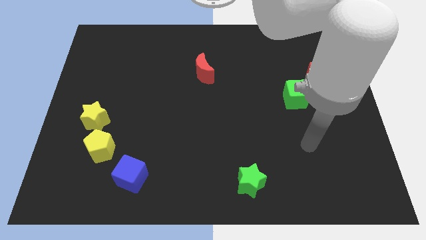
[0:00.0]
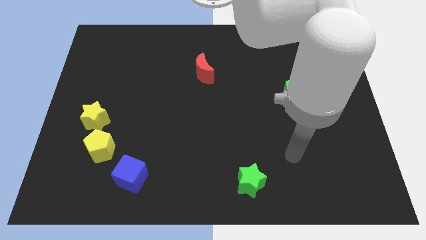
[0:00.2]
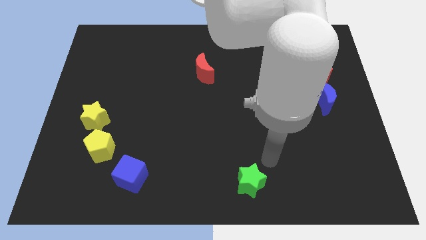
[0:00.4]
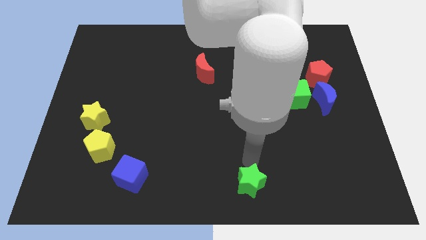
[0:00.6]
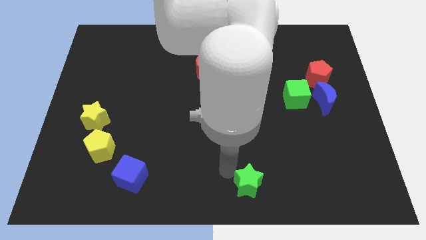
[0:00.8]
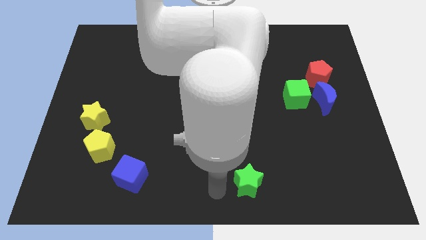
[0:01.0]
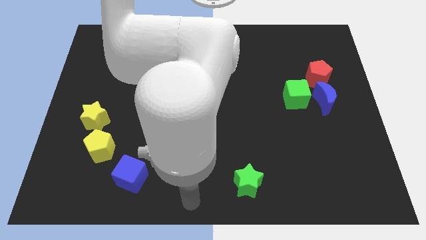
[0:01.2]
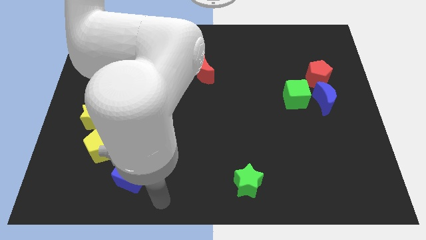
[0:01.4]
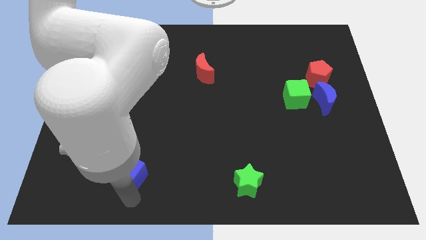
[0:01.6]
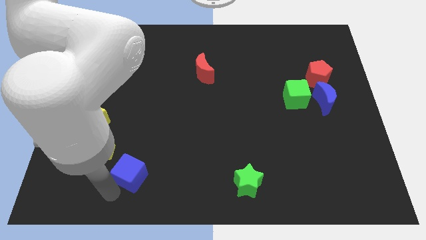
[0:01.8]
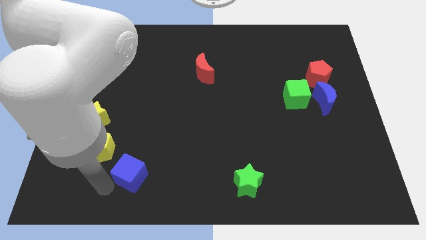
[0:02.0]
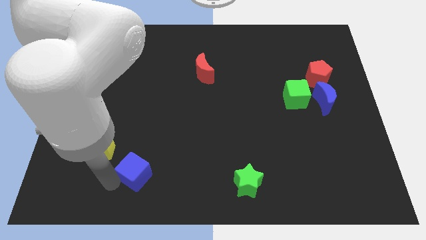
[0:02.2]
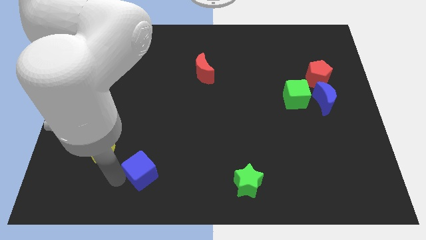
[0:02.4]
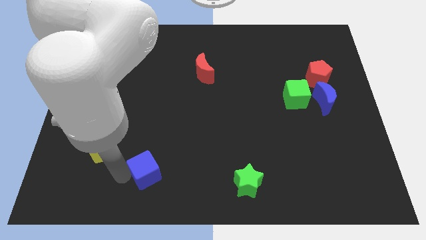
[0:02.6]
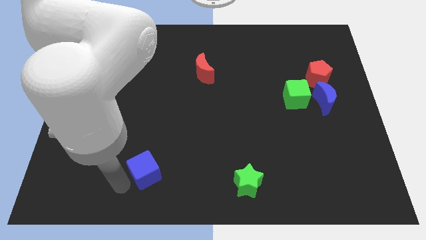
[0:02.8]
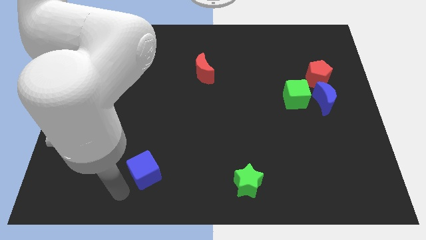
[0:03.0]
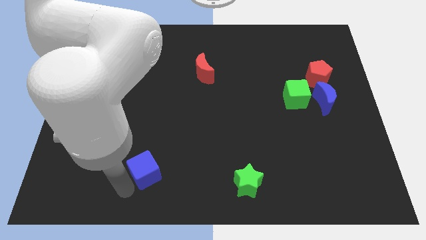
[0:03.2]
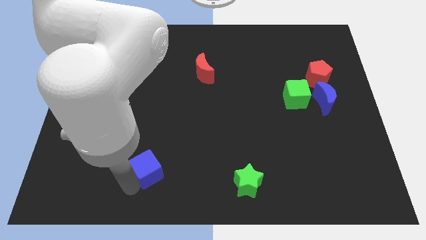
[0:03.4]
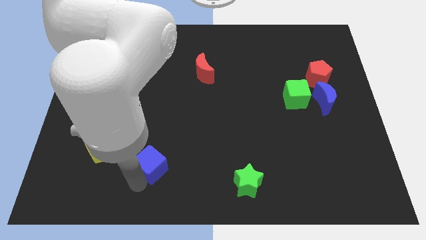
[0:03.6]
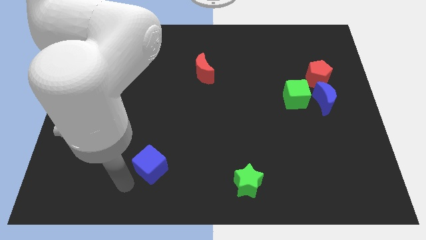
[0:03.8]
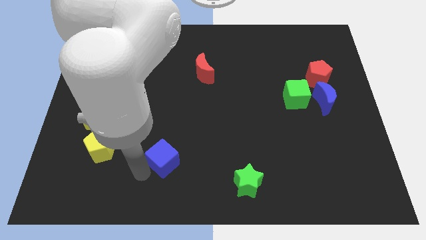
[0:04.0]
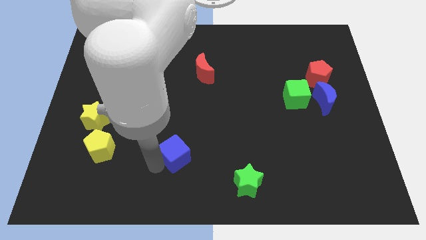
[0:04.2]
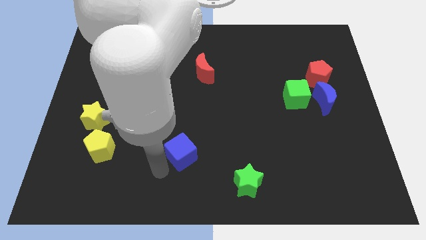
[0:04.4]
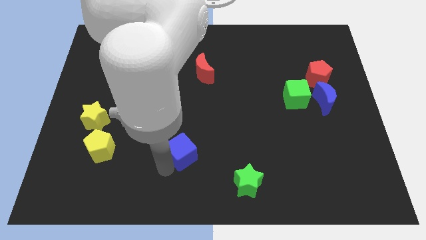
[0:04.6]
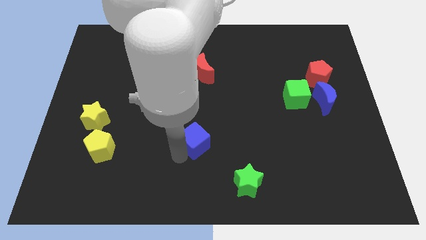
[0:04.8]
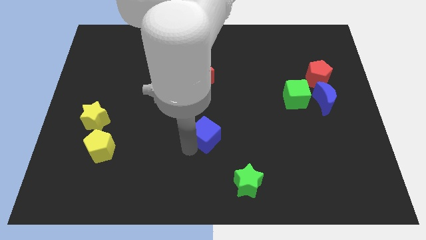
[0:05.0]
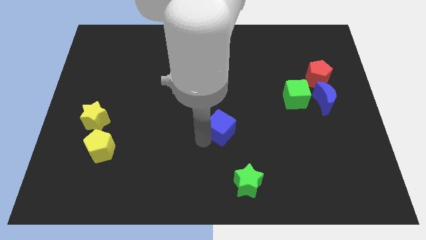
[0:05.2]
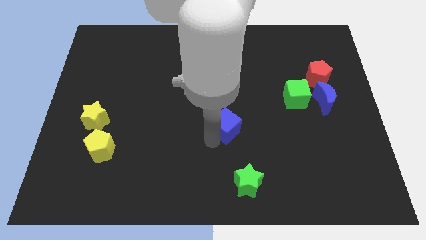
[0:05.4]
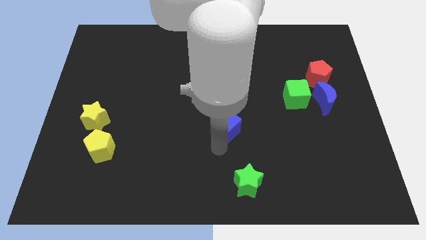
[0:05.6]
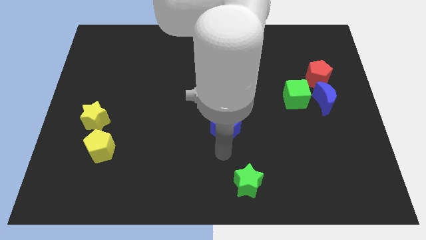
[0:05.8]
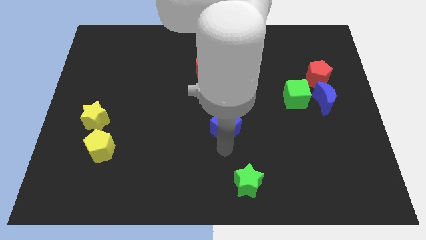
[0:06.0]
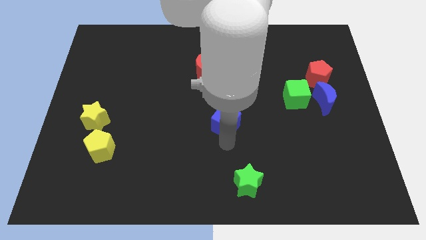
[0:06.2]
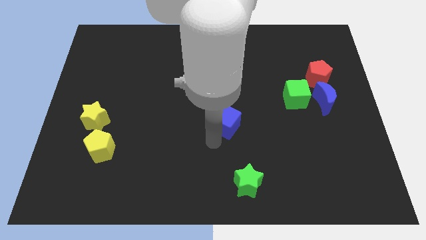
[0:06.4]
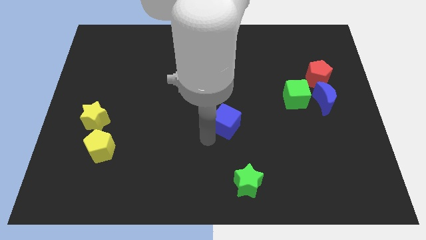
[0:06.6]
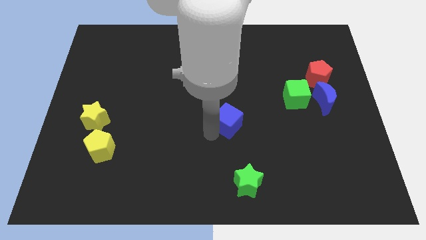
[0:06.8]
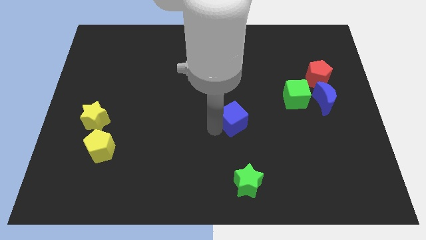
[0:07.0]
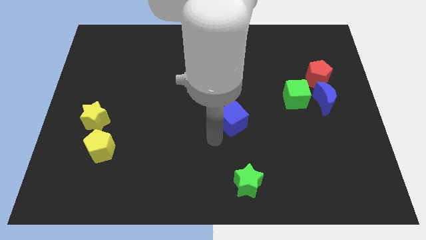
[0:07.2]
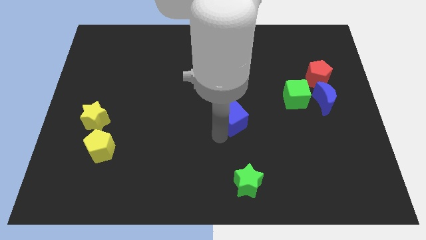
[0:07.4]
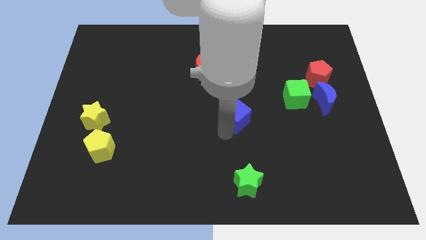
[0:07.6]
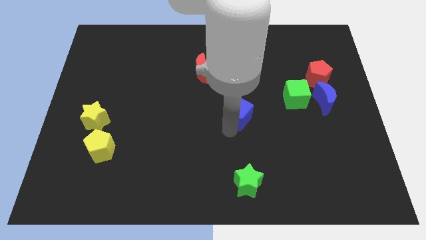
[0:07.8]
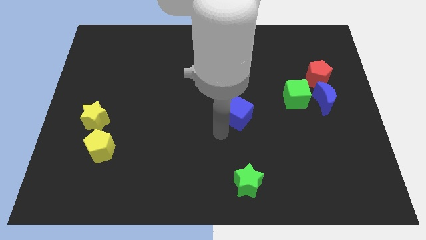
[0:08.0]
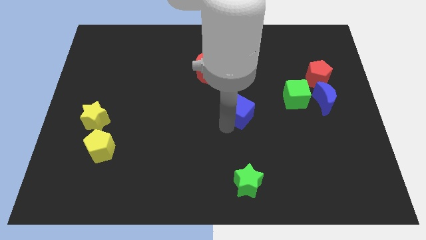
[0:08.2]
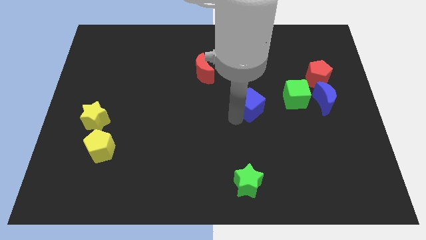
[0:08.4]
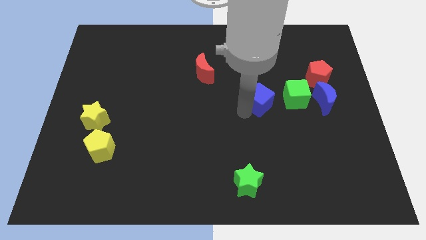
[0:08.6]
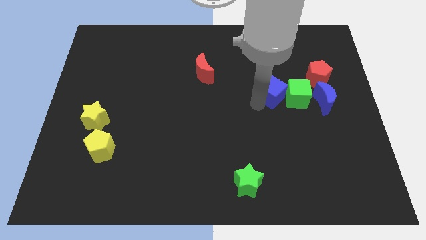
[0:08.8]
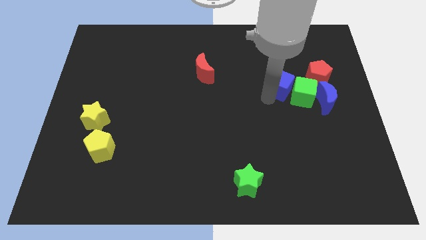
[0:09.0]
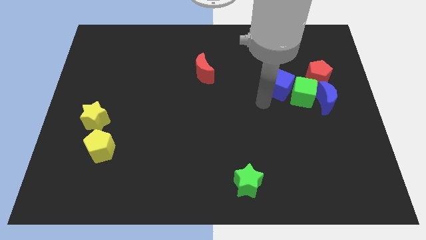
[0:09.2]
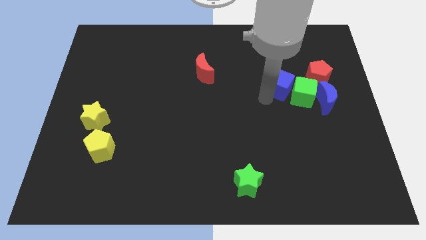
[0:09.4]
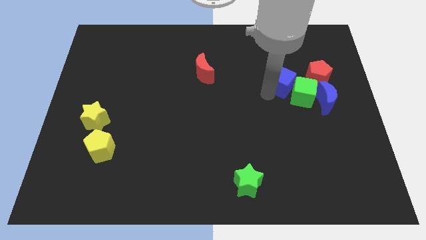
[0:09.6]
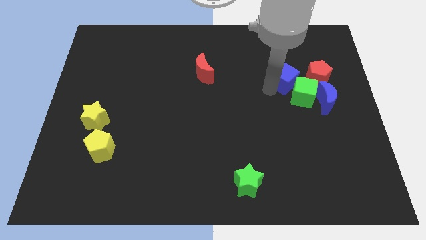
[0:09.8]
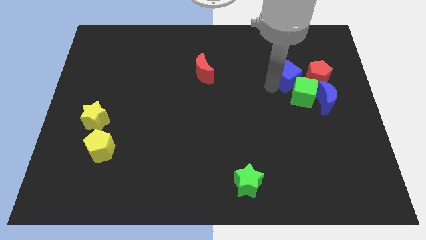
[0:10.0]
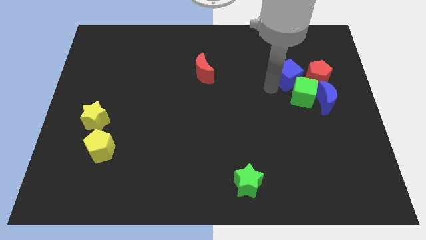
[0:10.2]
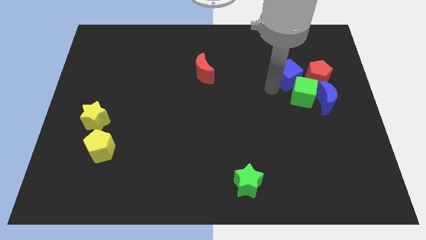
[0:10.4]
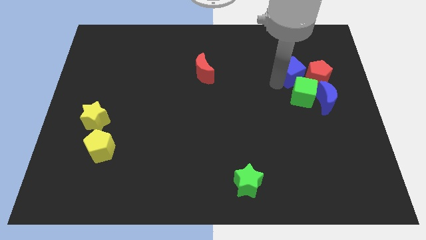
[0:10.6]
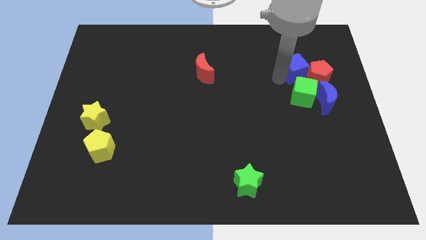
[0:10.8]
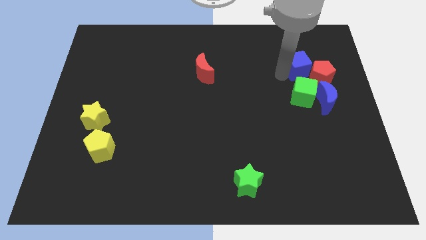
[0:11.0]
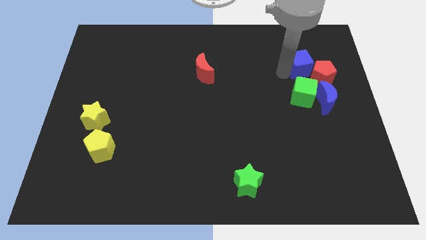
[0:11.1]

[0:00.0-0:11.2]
push the blue cube to the top of the blue moon

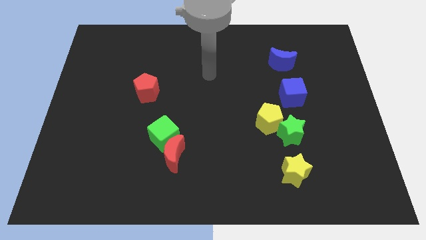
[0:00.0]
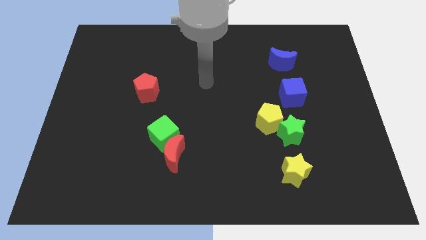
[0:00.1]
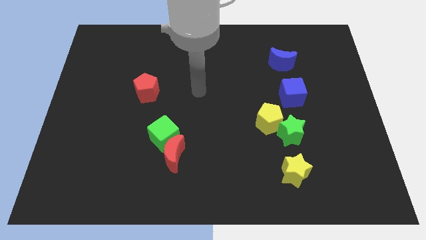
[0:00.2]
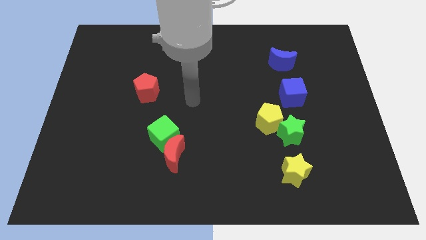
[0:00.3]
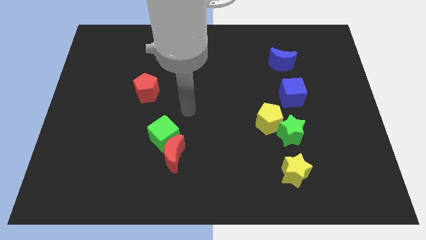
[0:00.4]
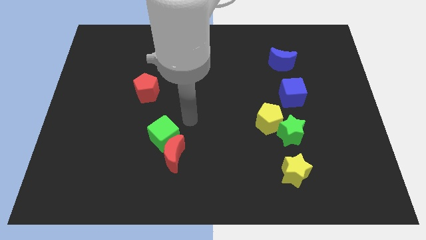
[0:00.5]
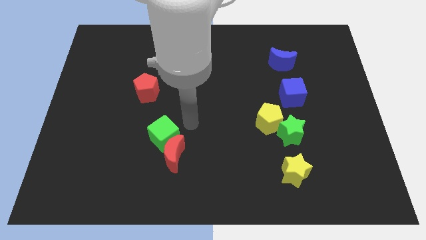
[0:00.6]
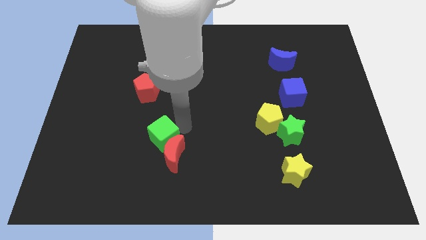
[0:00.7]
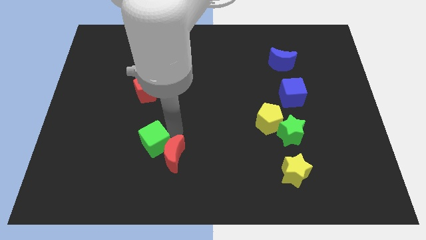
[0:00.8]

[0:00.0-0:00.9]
put the green cube left of the red moon
